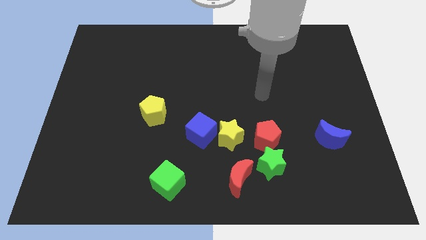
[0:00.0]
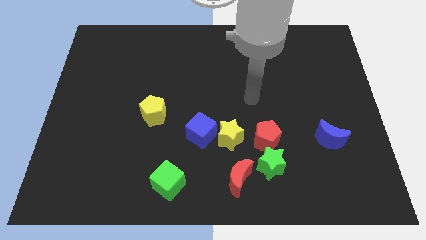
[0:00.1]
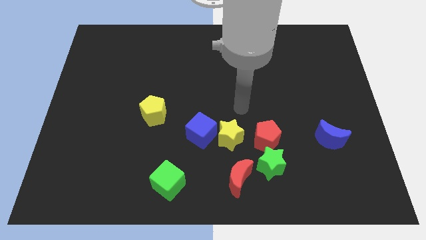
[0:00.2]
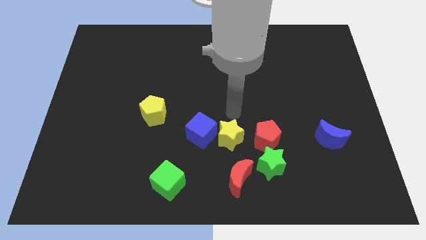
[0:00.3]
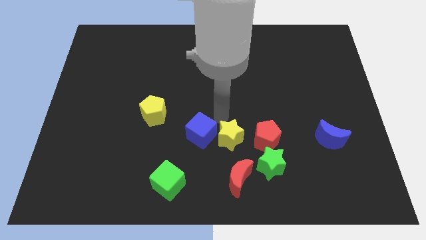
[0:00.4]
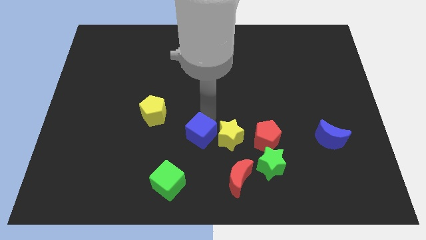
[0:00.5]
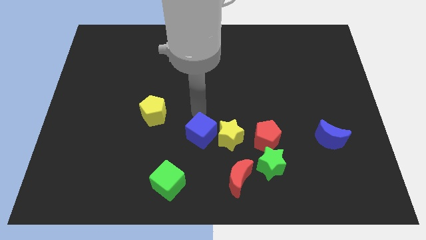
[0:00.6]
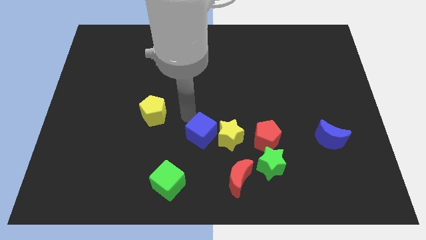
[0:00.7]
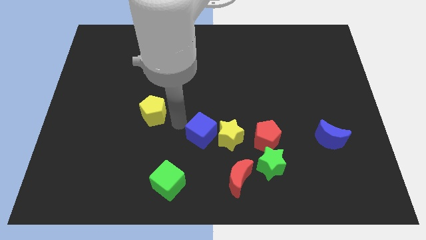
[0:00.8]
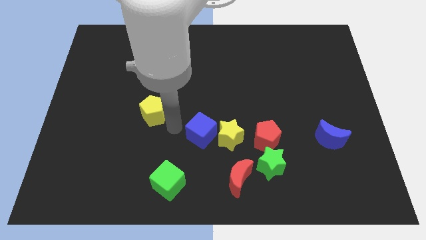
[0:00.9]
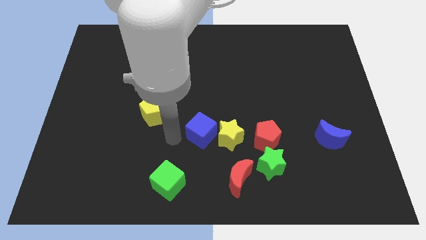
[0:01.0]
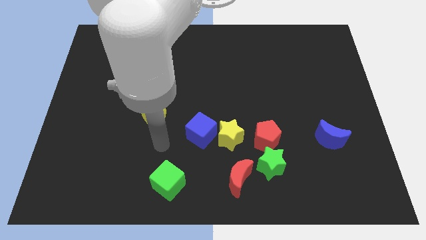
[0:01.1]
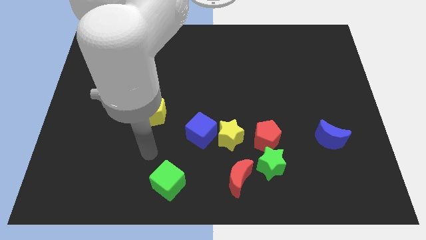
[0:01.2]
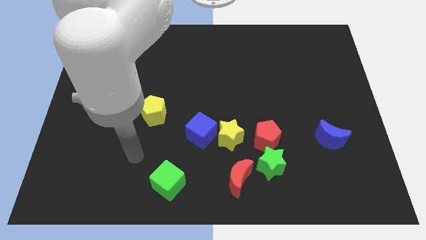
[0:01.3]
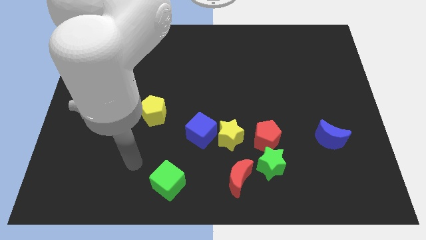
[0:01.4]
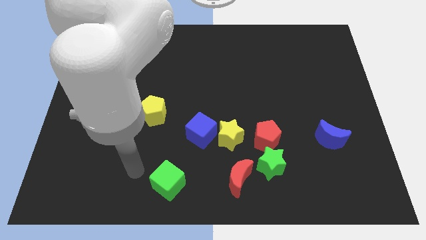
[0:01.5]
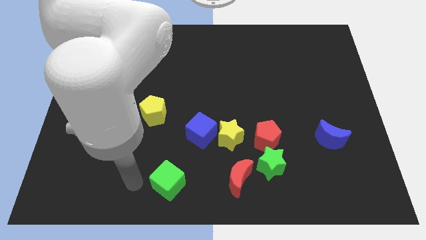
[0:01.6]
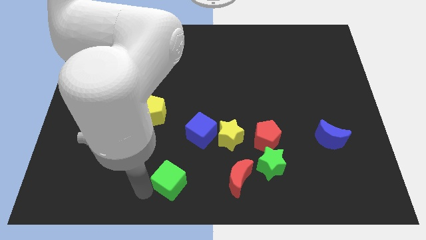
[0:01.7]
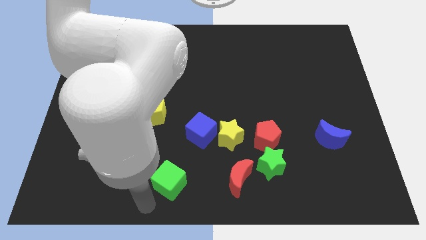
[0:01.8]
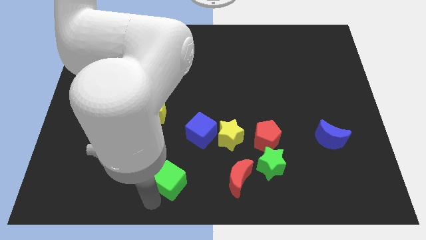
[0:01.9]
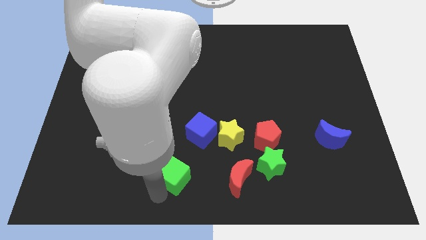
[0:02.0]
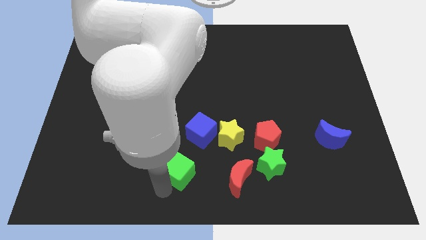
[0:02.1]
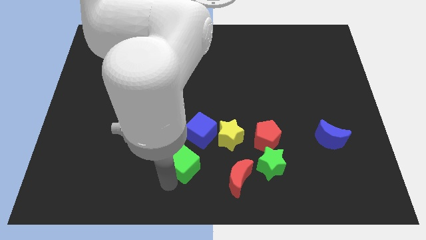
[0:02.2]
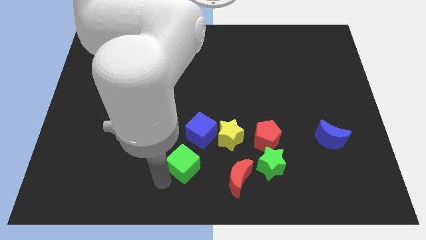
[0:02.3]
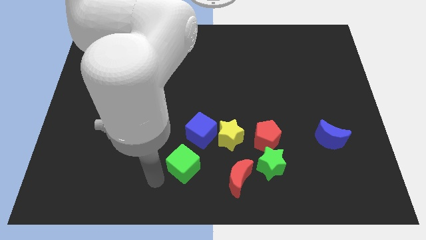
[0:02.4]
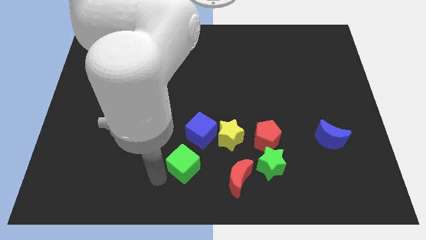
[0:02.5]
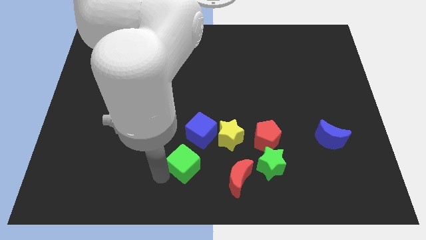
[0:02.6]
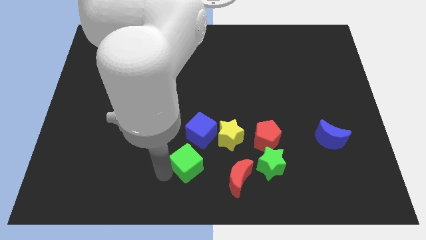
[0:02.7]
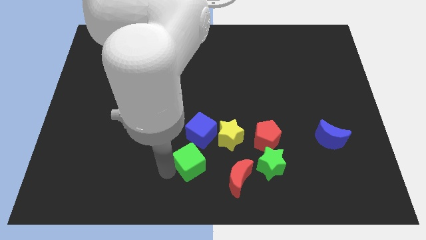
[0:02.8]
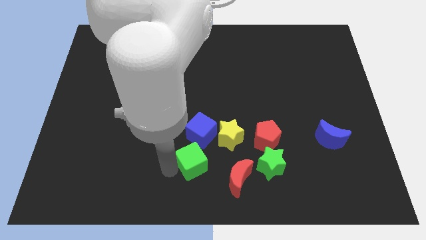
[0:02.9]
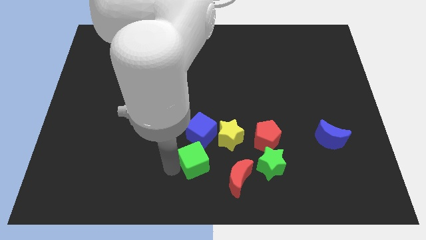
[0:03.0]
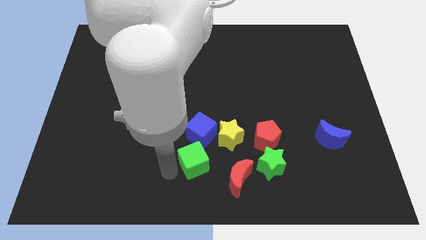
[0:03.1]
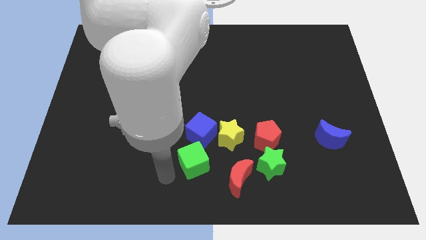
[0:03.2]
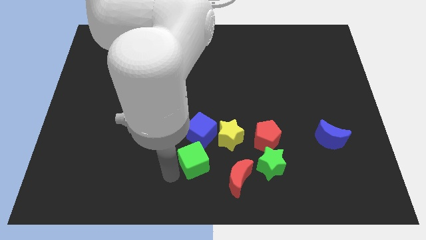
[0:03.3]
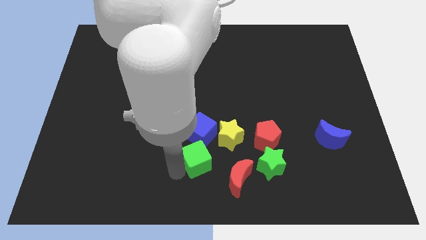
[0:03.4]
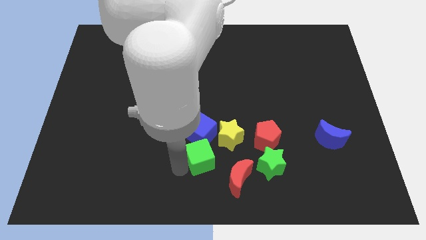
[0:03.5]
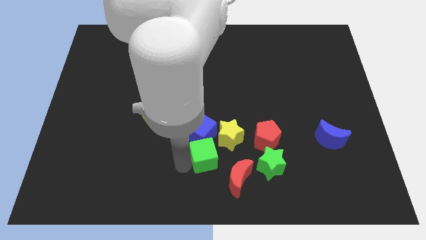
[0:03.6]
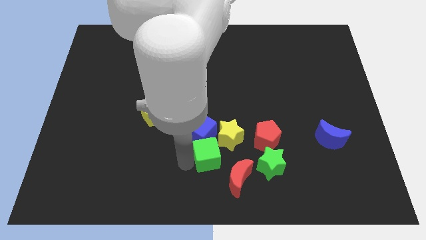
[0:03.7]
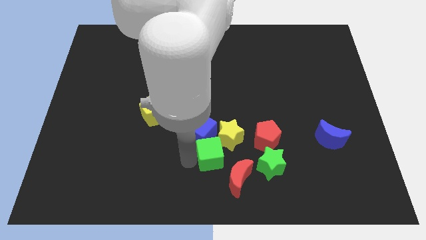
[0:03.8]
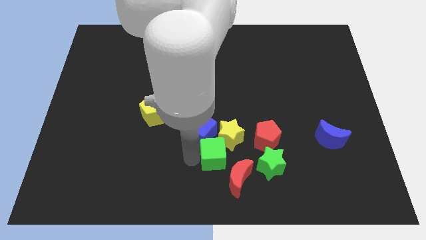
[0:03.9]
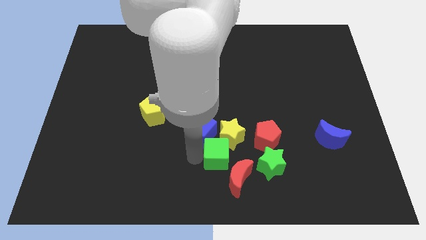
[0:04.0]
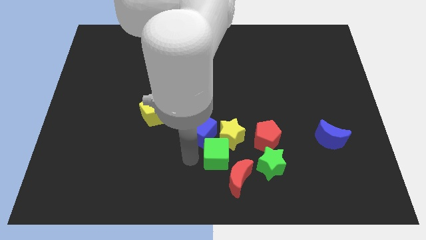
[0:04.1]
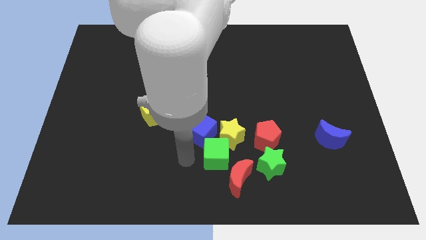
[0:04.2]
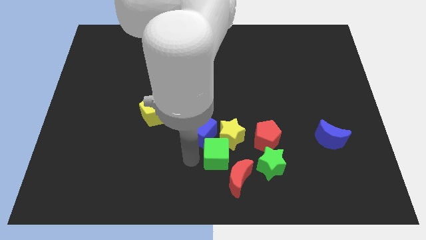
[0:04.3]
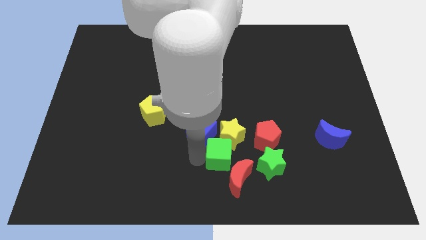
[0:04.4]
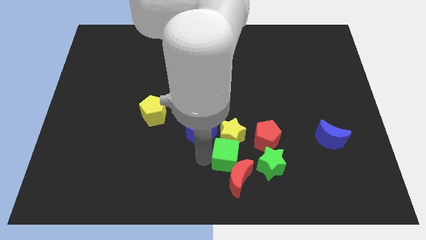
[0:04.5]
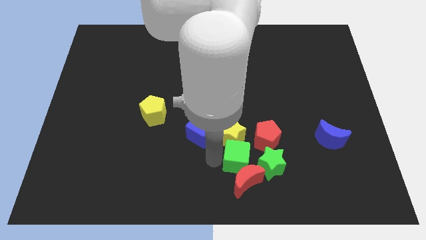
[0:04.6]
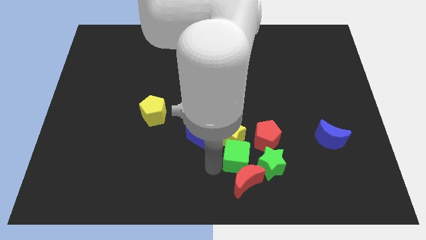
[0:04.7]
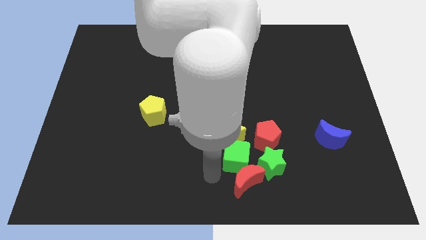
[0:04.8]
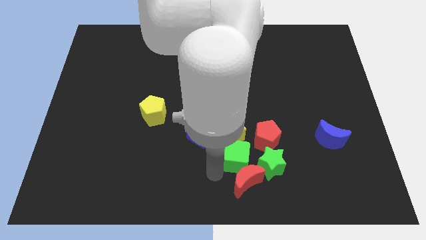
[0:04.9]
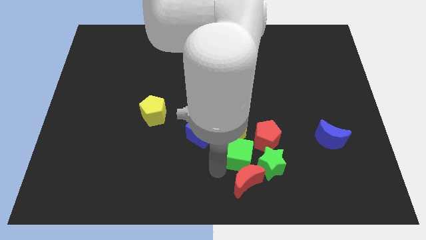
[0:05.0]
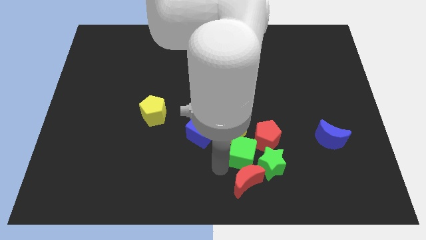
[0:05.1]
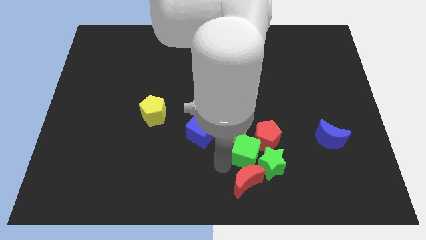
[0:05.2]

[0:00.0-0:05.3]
slide the green cube next to the red pentagon

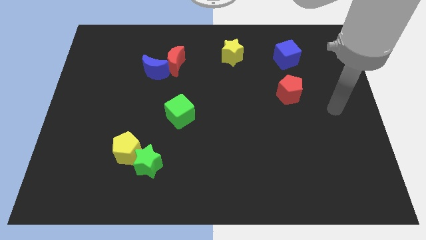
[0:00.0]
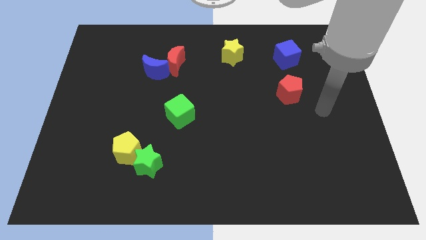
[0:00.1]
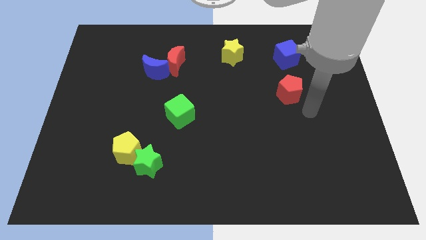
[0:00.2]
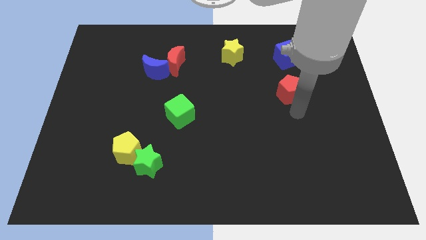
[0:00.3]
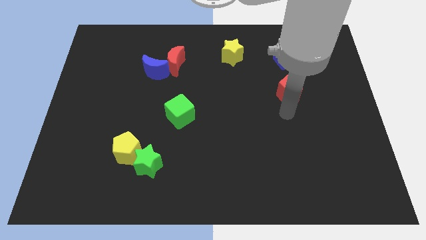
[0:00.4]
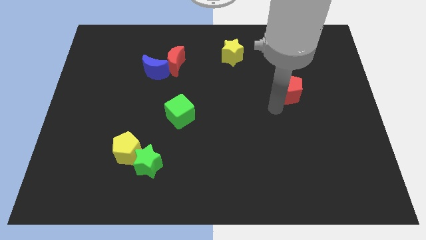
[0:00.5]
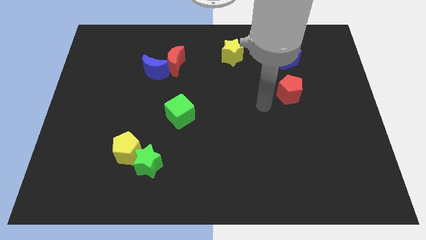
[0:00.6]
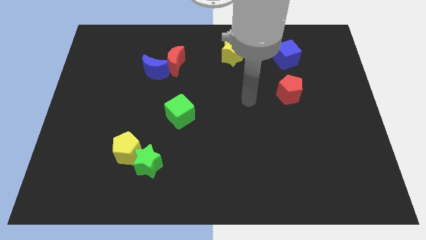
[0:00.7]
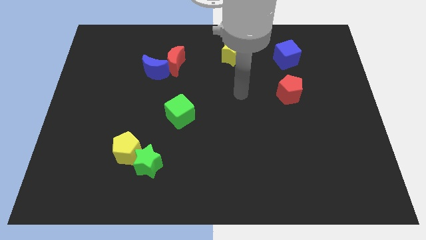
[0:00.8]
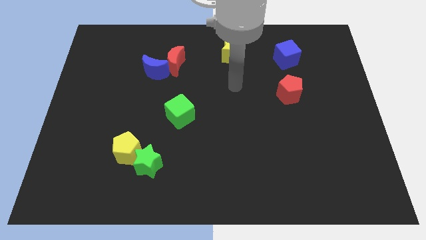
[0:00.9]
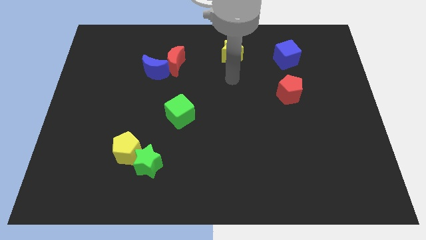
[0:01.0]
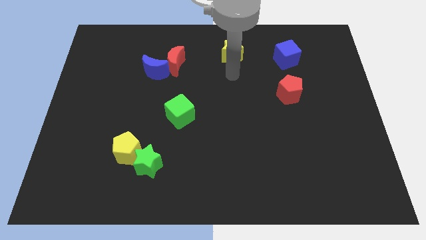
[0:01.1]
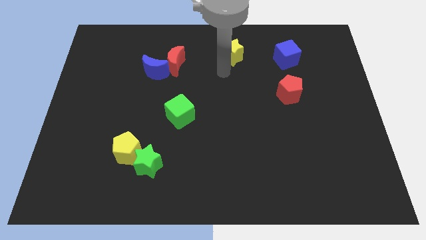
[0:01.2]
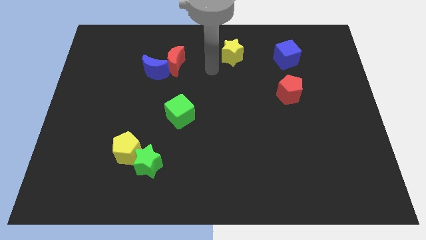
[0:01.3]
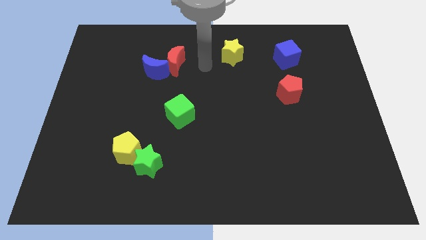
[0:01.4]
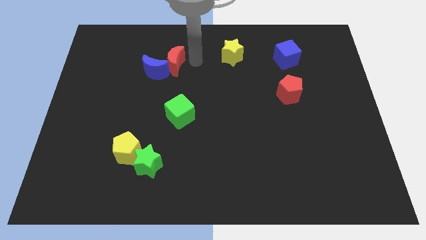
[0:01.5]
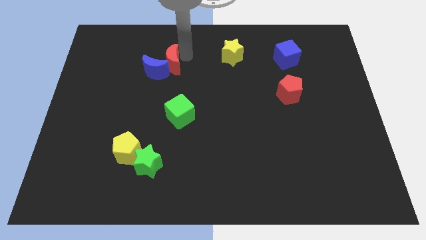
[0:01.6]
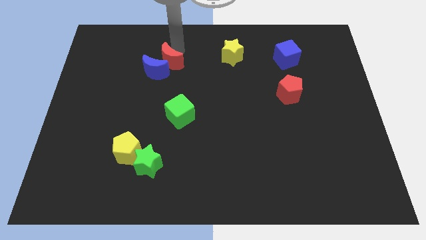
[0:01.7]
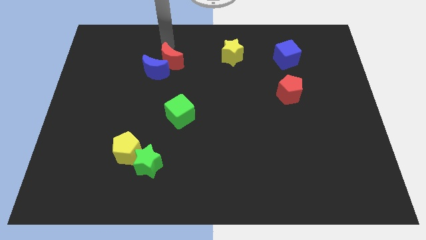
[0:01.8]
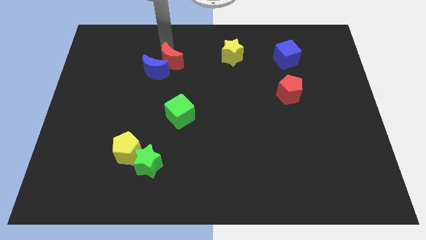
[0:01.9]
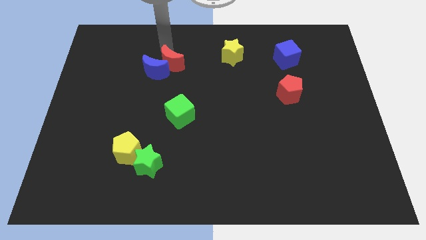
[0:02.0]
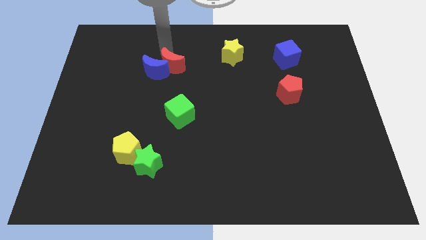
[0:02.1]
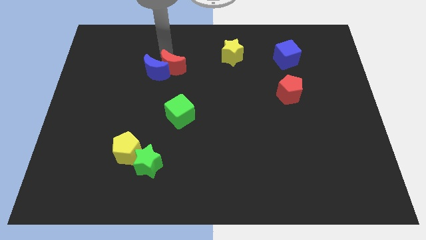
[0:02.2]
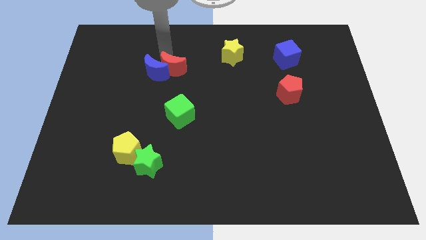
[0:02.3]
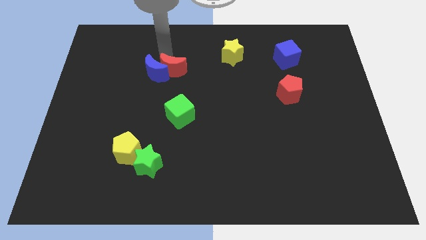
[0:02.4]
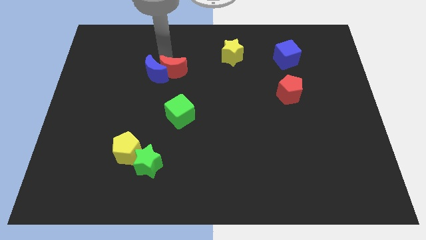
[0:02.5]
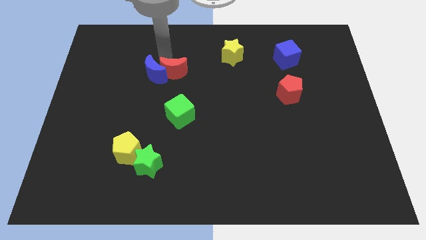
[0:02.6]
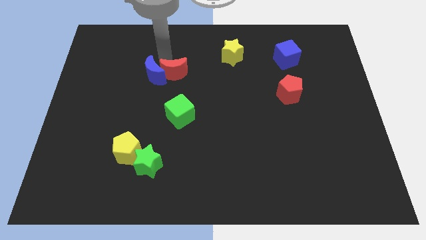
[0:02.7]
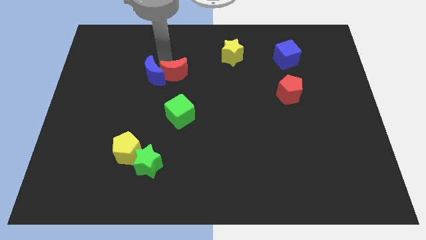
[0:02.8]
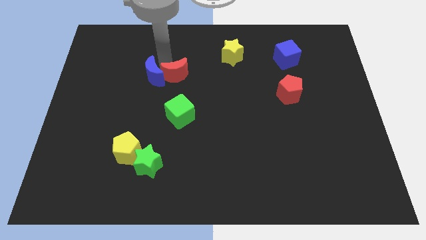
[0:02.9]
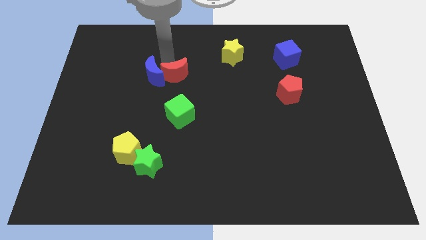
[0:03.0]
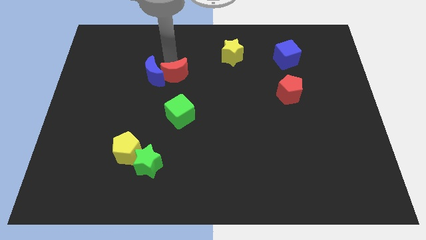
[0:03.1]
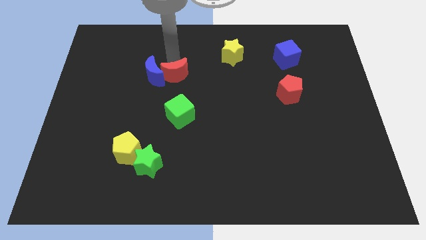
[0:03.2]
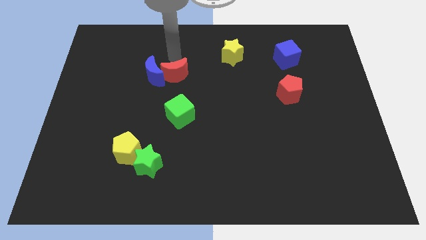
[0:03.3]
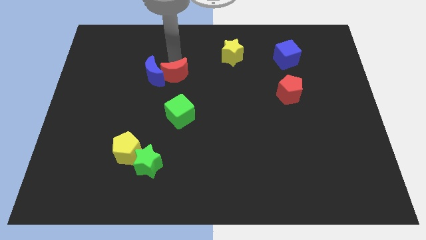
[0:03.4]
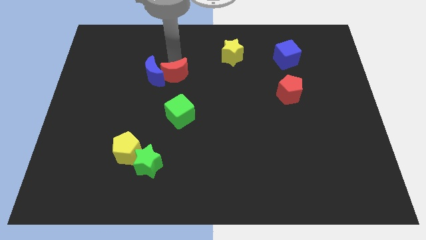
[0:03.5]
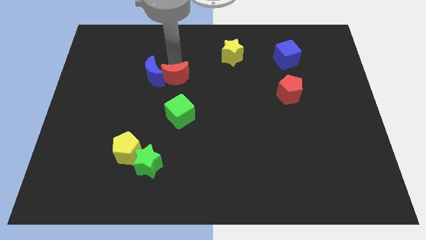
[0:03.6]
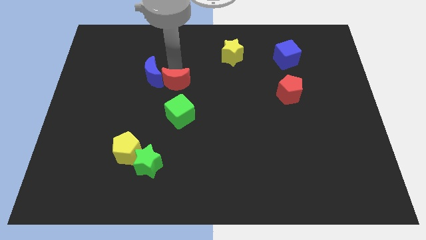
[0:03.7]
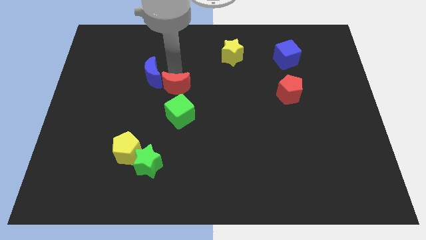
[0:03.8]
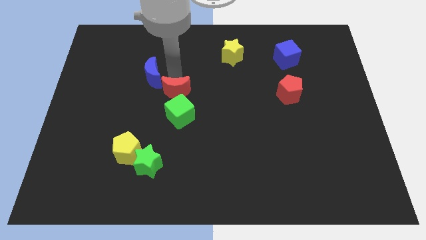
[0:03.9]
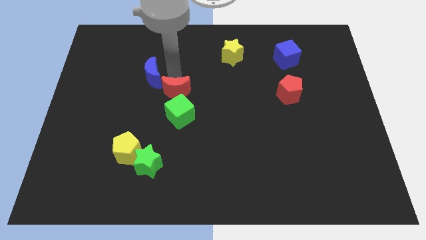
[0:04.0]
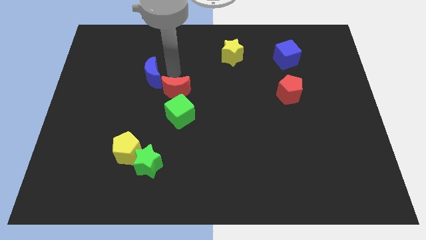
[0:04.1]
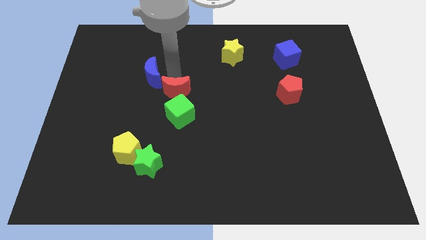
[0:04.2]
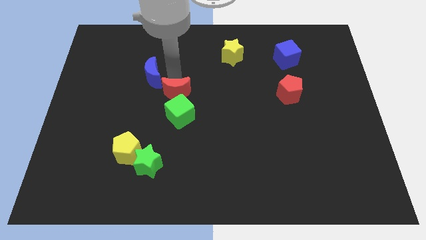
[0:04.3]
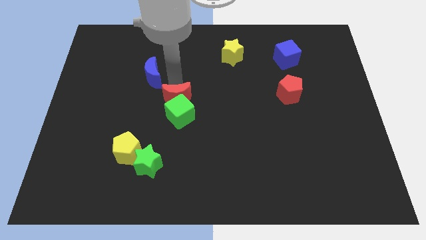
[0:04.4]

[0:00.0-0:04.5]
move the red moon to the green cube
